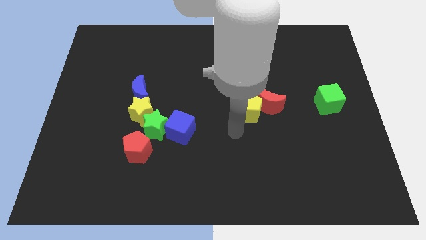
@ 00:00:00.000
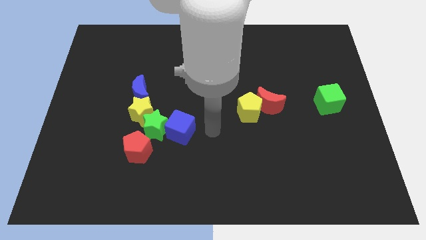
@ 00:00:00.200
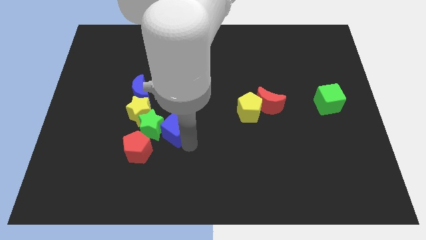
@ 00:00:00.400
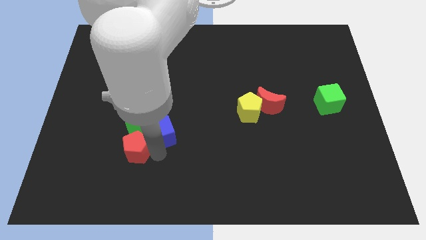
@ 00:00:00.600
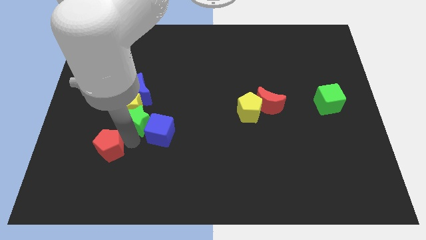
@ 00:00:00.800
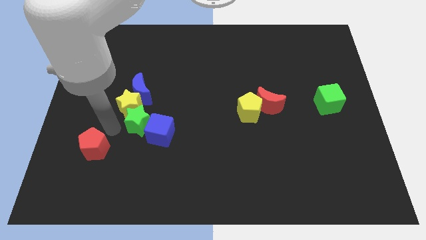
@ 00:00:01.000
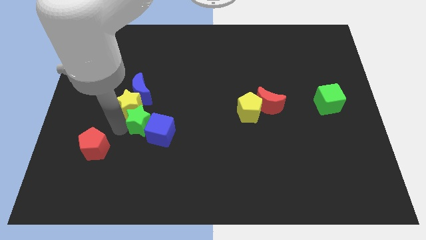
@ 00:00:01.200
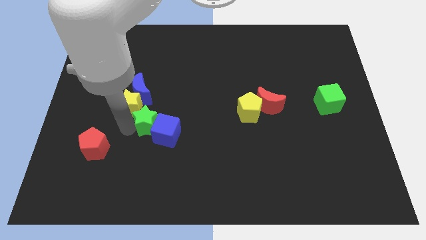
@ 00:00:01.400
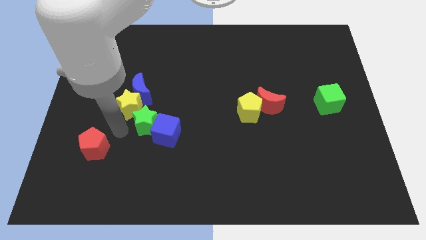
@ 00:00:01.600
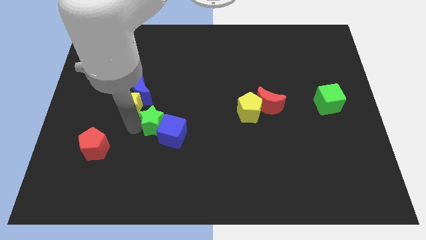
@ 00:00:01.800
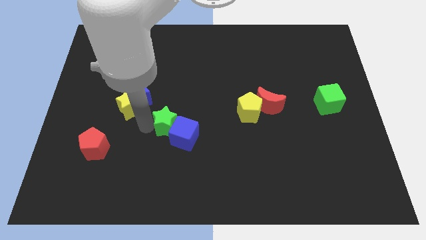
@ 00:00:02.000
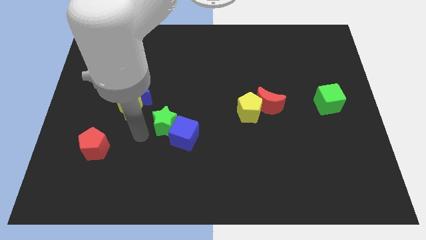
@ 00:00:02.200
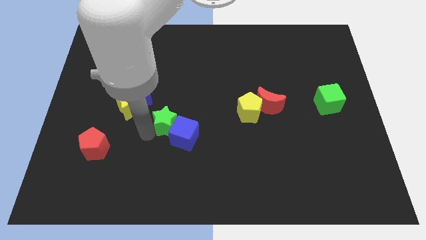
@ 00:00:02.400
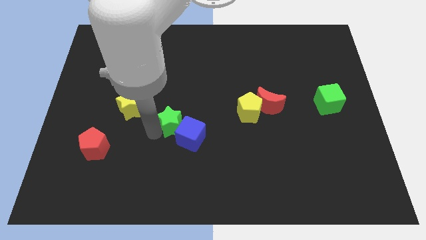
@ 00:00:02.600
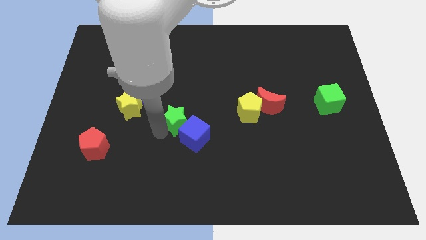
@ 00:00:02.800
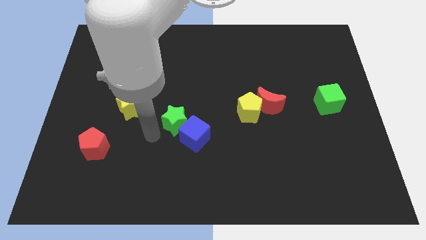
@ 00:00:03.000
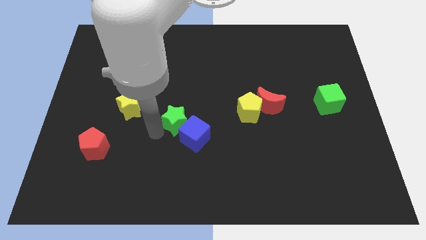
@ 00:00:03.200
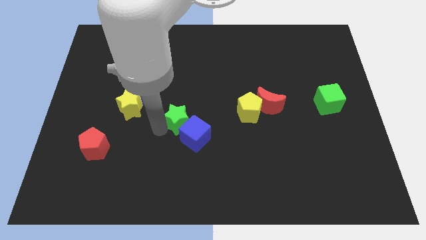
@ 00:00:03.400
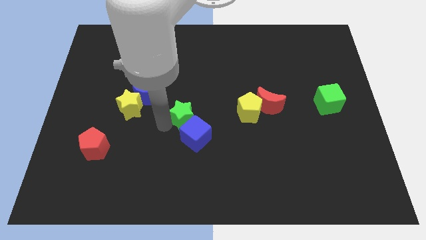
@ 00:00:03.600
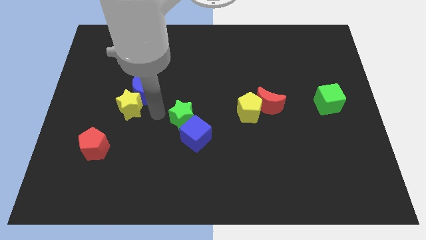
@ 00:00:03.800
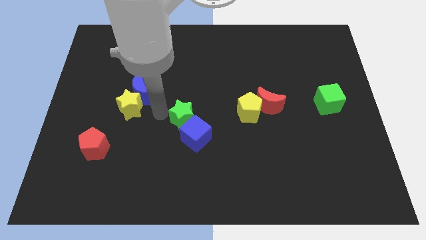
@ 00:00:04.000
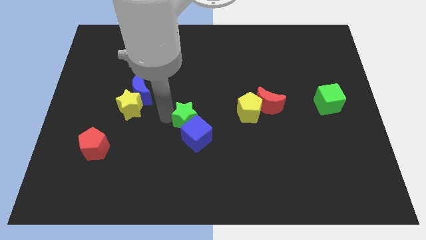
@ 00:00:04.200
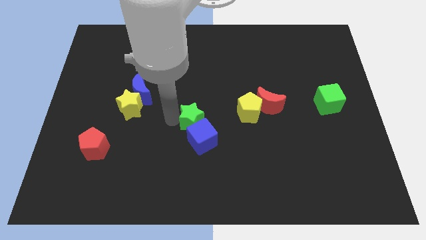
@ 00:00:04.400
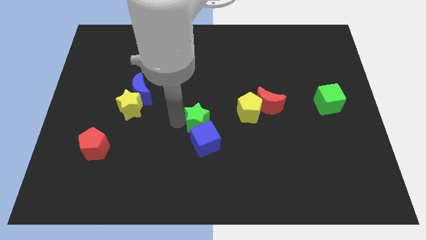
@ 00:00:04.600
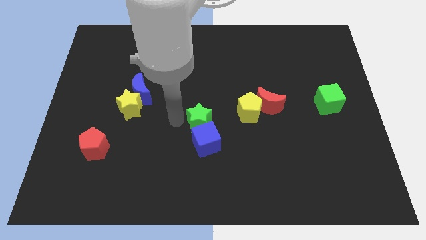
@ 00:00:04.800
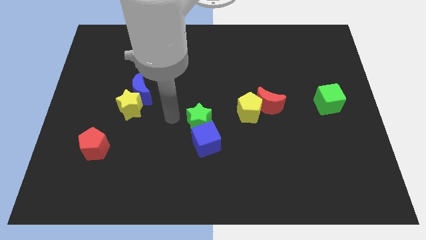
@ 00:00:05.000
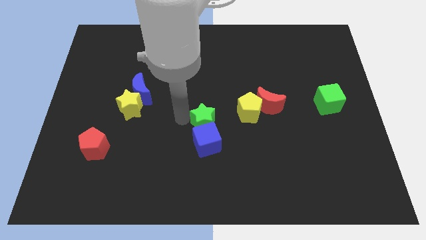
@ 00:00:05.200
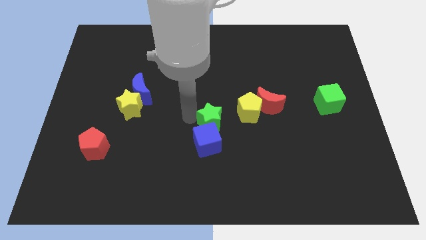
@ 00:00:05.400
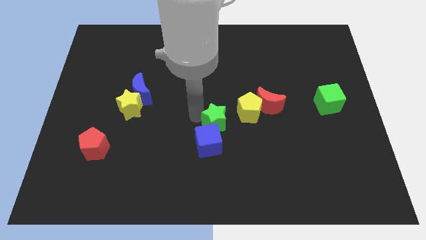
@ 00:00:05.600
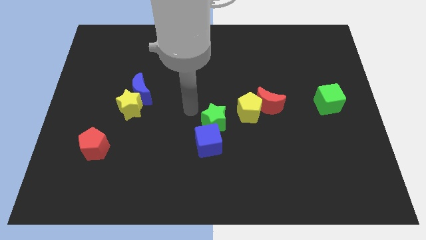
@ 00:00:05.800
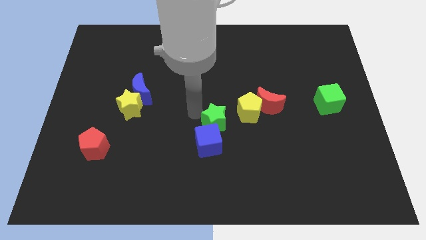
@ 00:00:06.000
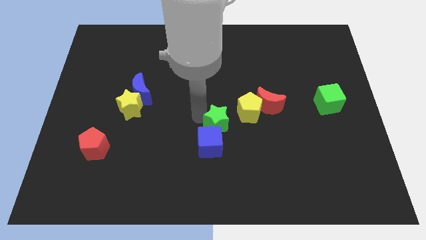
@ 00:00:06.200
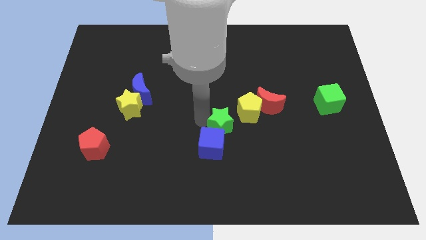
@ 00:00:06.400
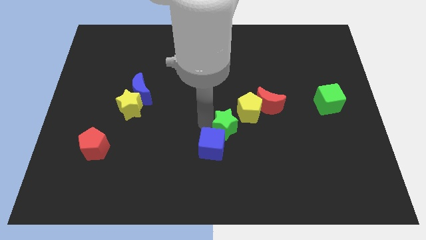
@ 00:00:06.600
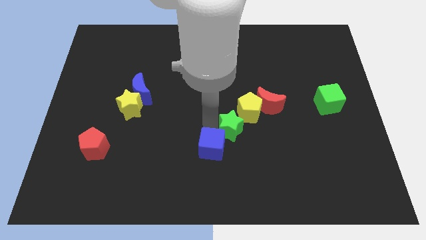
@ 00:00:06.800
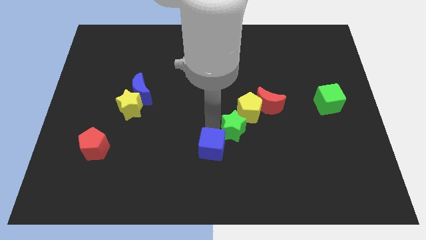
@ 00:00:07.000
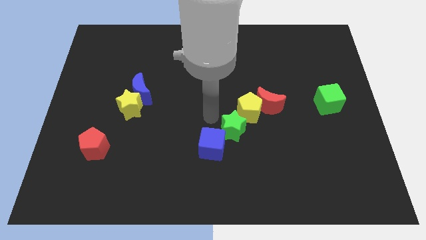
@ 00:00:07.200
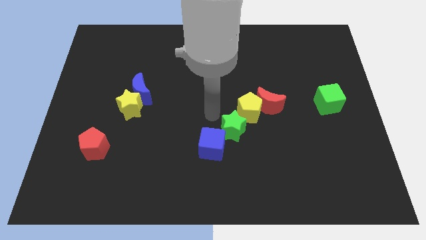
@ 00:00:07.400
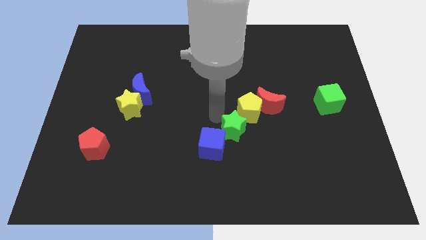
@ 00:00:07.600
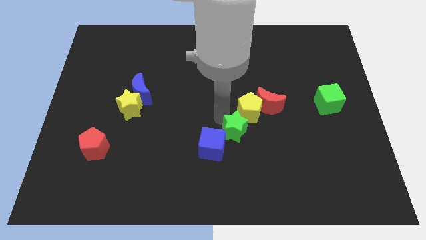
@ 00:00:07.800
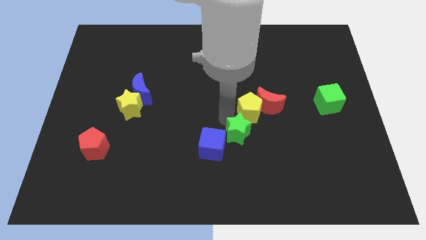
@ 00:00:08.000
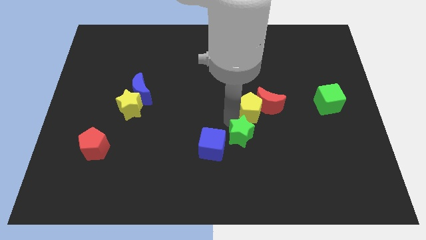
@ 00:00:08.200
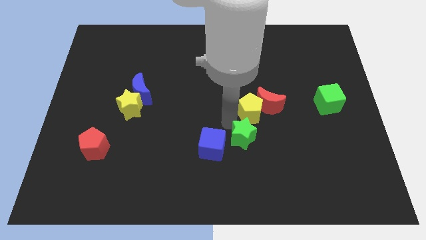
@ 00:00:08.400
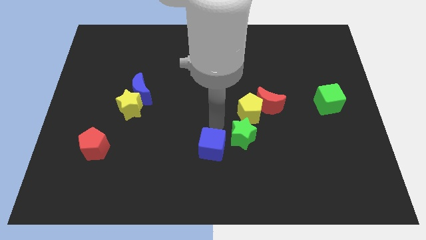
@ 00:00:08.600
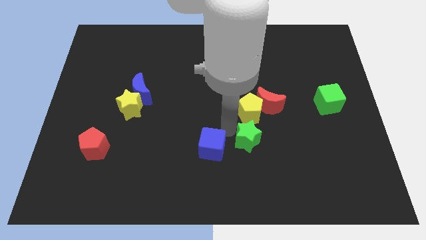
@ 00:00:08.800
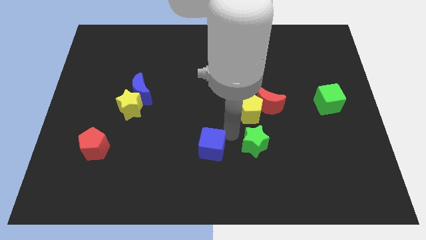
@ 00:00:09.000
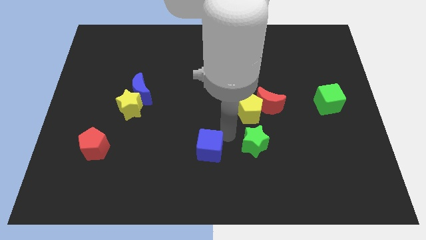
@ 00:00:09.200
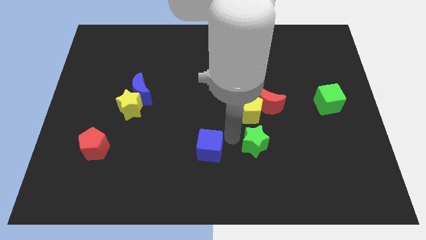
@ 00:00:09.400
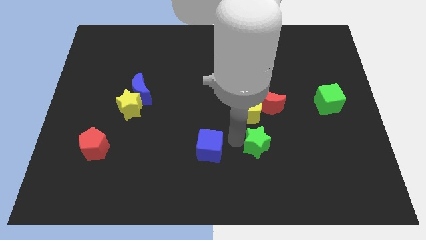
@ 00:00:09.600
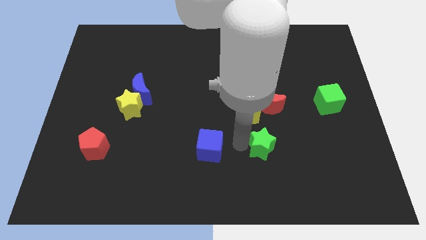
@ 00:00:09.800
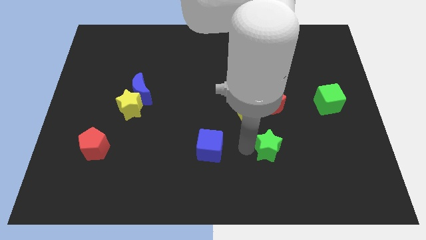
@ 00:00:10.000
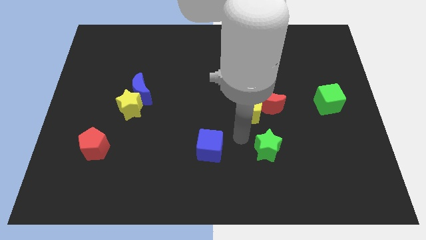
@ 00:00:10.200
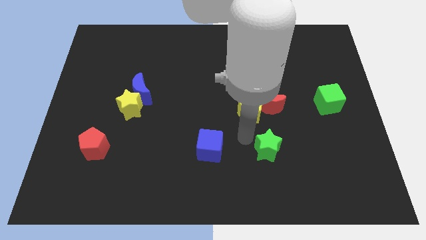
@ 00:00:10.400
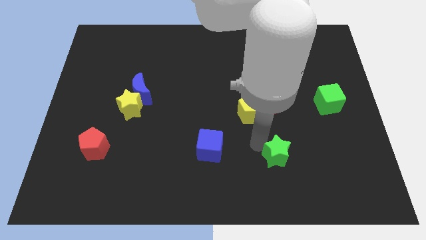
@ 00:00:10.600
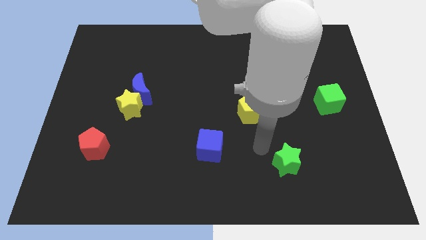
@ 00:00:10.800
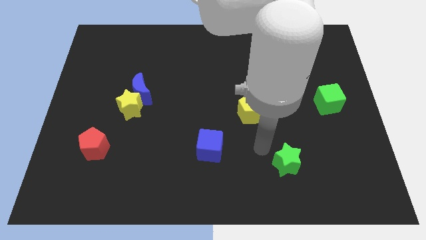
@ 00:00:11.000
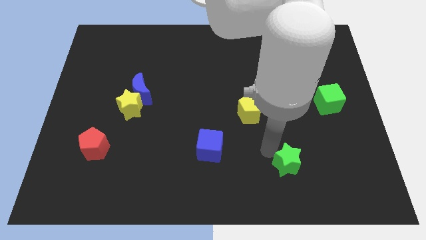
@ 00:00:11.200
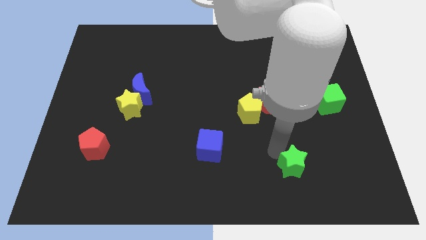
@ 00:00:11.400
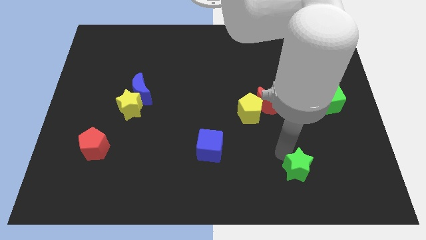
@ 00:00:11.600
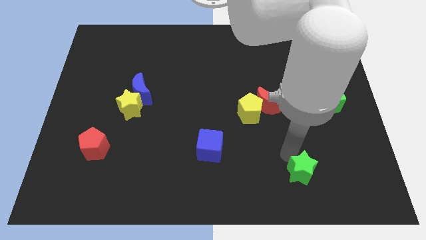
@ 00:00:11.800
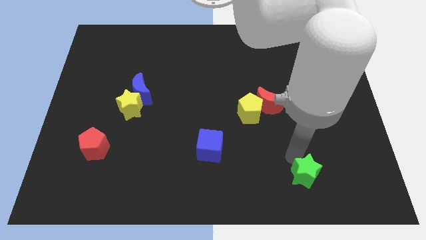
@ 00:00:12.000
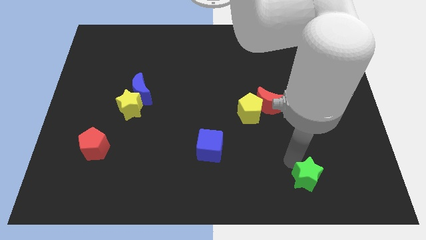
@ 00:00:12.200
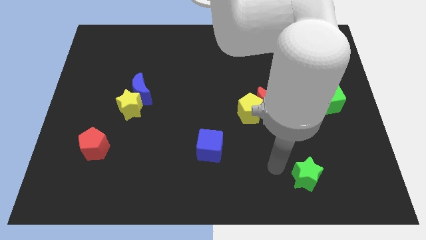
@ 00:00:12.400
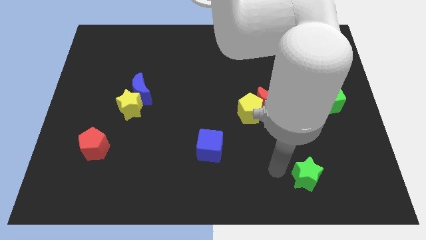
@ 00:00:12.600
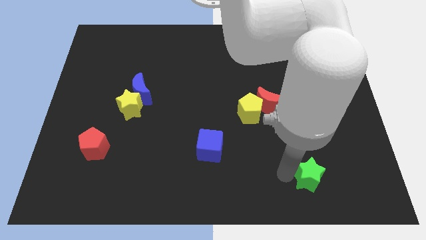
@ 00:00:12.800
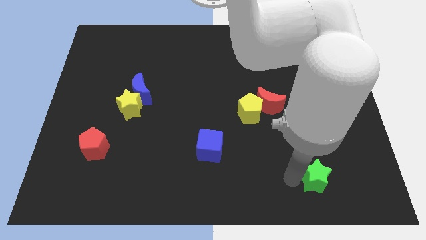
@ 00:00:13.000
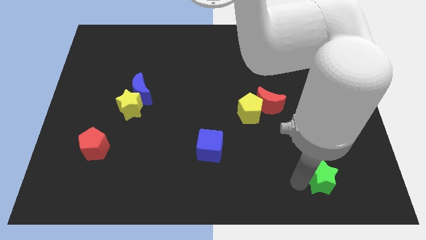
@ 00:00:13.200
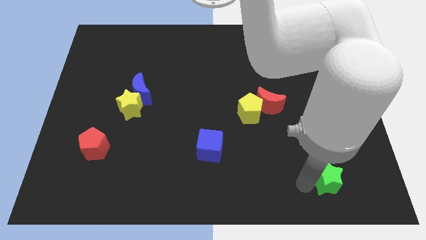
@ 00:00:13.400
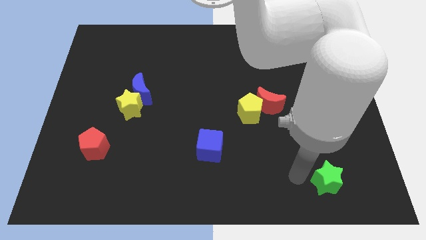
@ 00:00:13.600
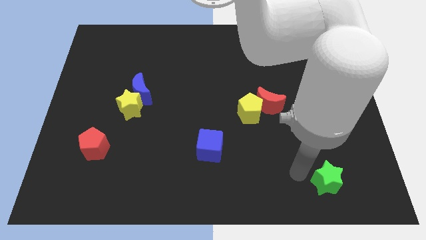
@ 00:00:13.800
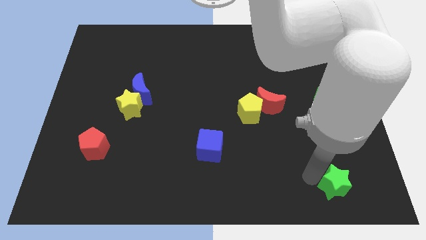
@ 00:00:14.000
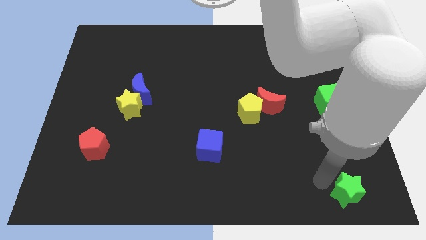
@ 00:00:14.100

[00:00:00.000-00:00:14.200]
push the green star to the bottom right corner
